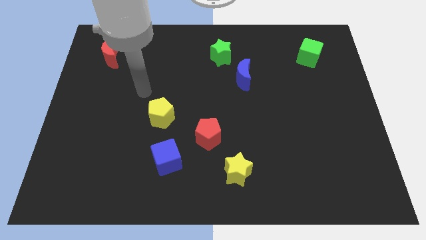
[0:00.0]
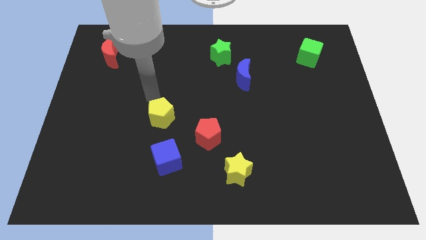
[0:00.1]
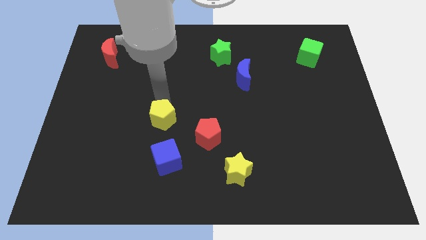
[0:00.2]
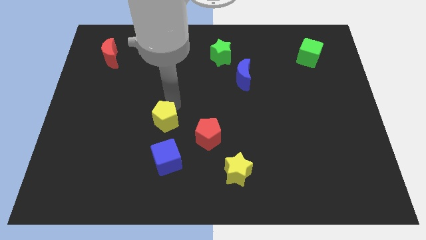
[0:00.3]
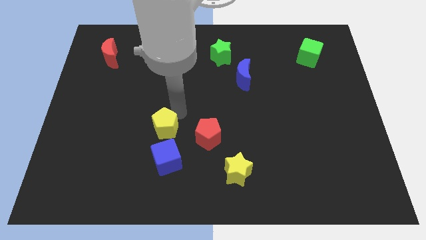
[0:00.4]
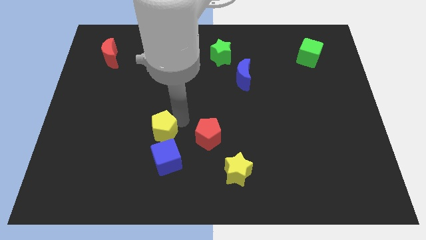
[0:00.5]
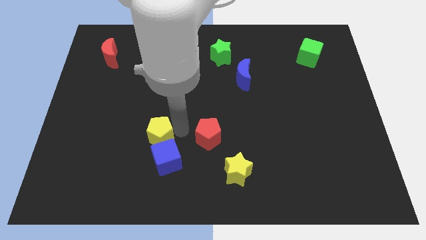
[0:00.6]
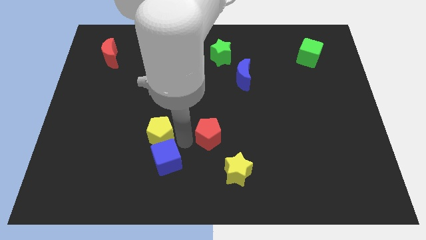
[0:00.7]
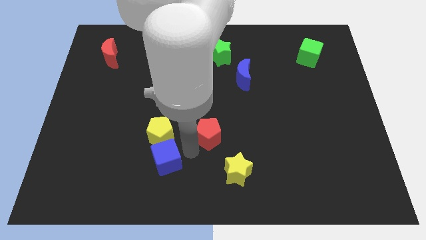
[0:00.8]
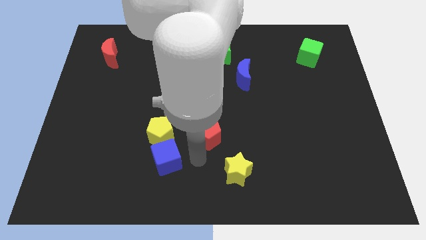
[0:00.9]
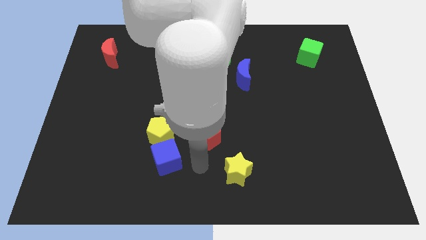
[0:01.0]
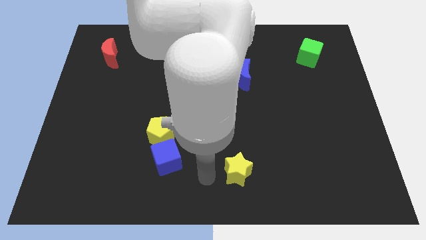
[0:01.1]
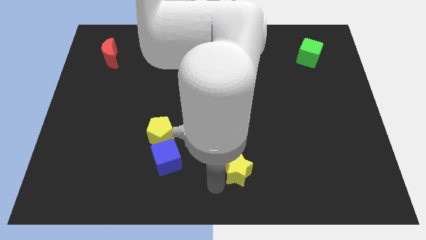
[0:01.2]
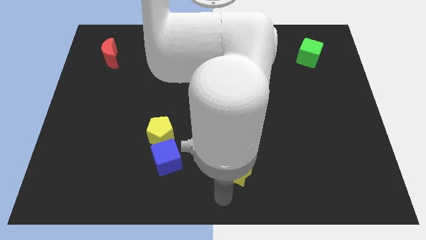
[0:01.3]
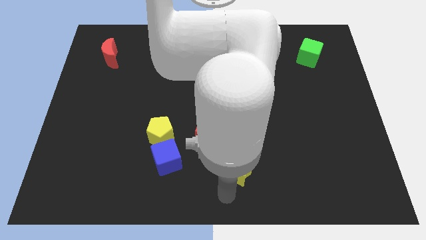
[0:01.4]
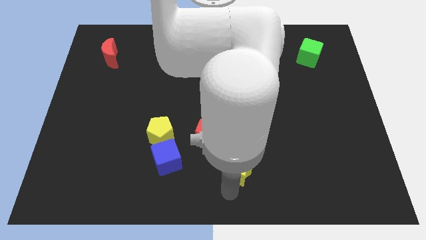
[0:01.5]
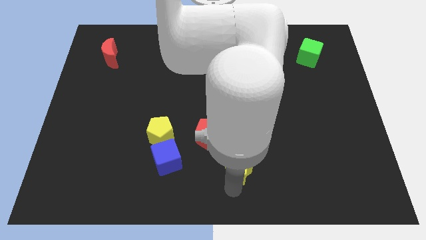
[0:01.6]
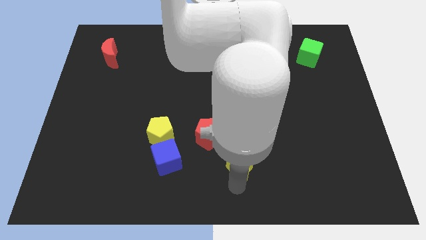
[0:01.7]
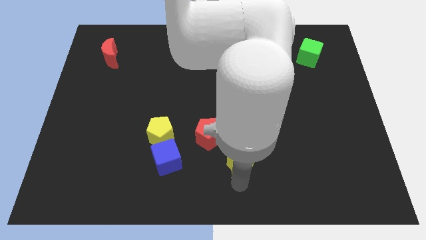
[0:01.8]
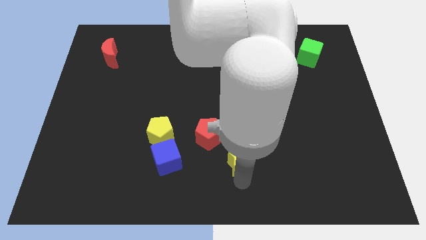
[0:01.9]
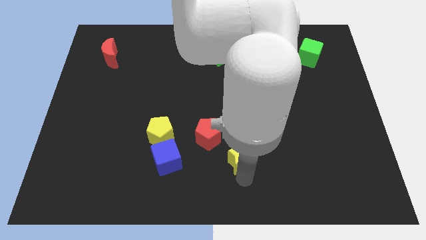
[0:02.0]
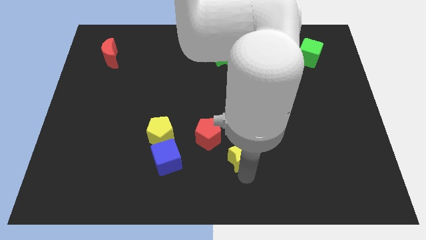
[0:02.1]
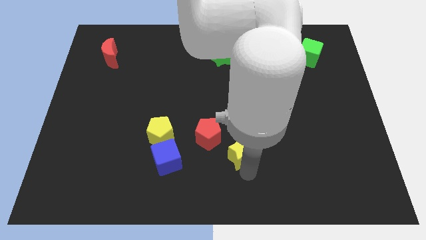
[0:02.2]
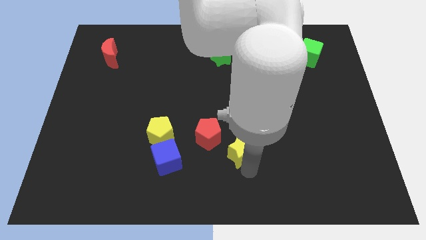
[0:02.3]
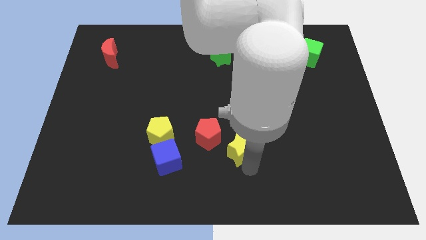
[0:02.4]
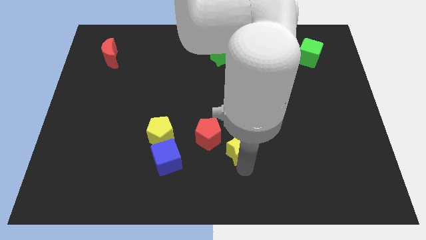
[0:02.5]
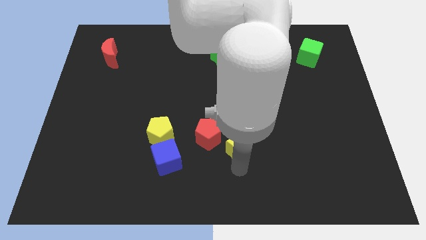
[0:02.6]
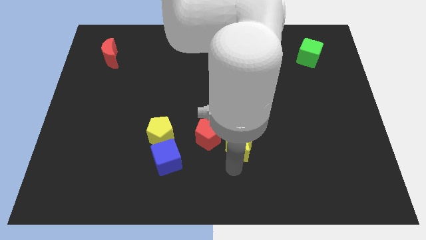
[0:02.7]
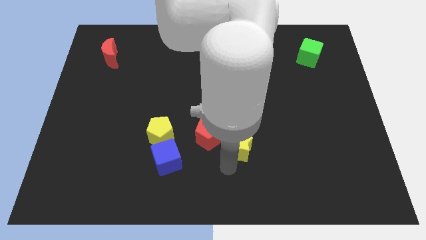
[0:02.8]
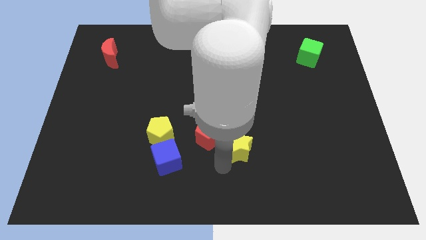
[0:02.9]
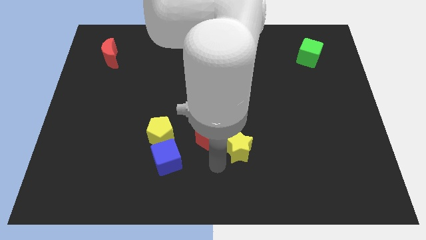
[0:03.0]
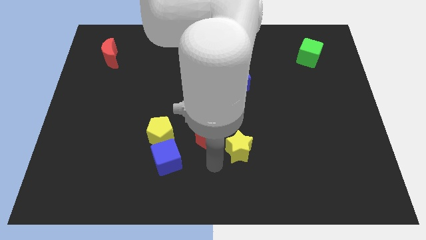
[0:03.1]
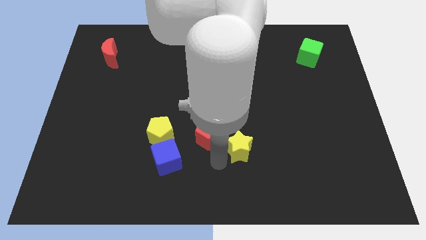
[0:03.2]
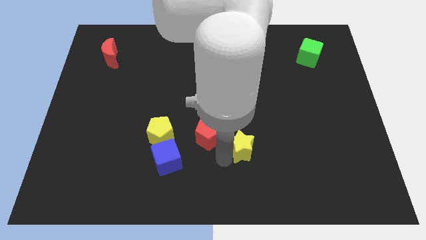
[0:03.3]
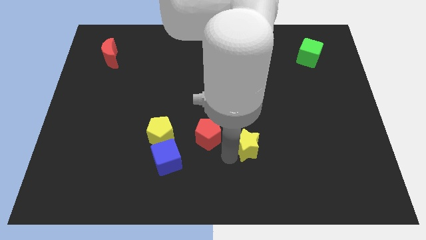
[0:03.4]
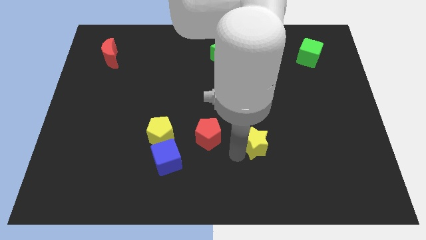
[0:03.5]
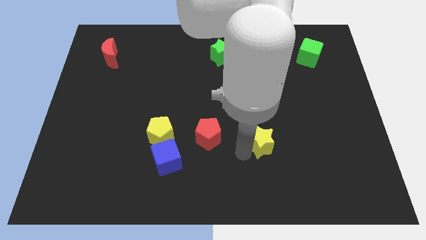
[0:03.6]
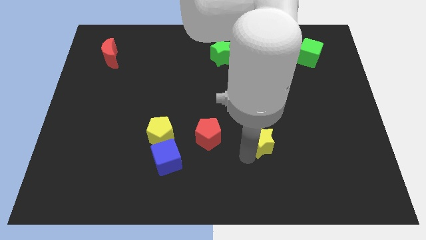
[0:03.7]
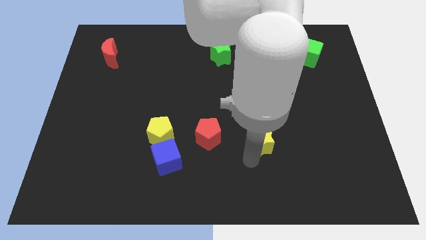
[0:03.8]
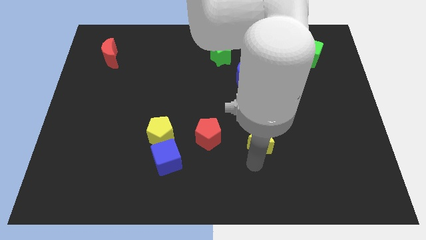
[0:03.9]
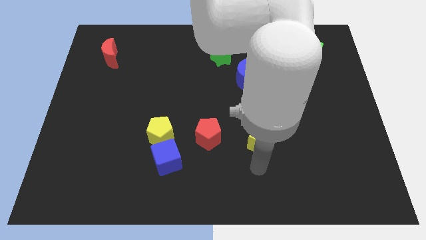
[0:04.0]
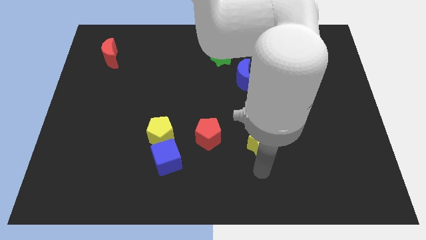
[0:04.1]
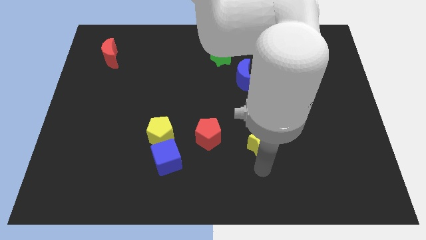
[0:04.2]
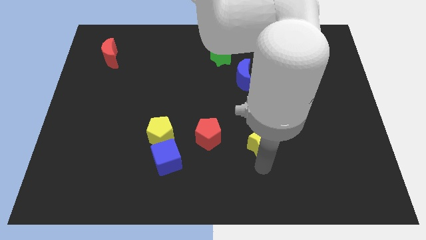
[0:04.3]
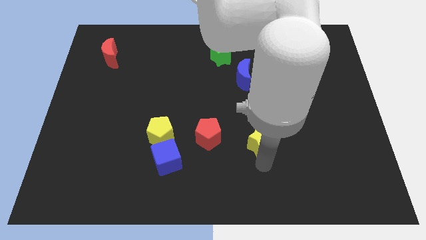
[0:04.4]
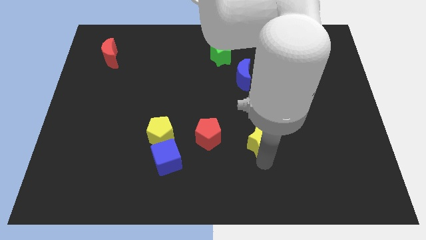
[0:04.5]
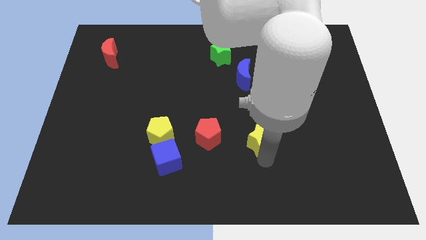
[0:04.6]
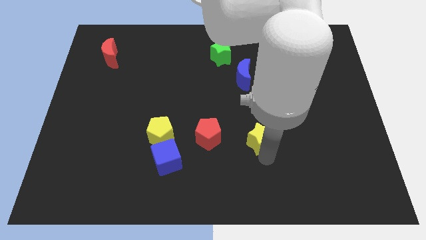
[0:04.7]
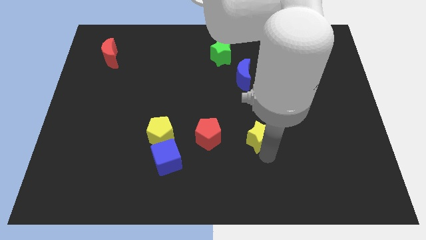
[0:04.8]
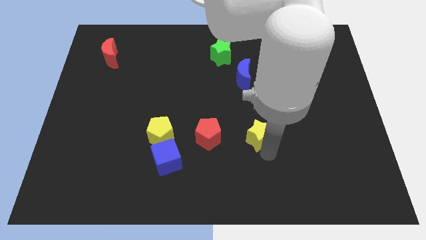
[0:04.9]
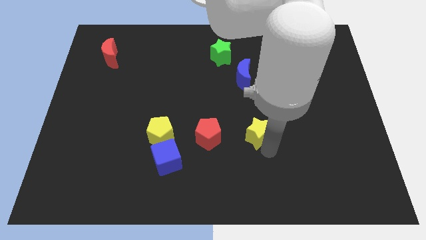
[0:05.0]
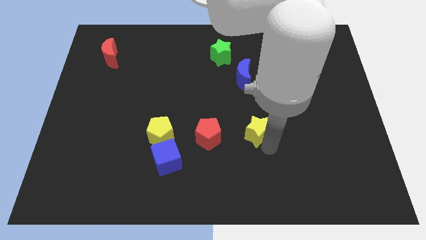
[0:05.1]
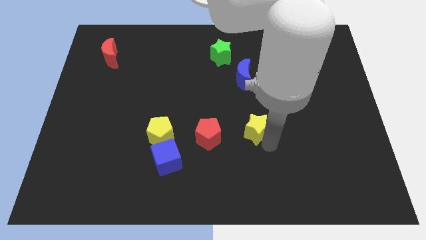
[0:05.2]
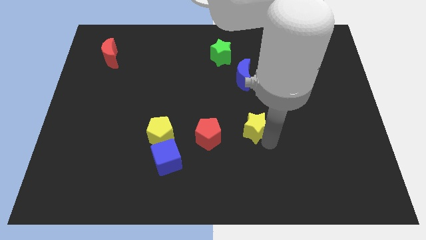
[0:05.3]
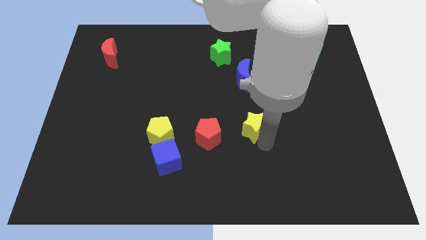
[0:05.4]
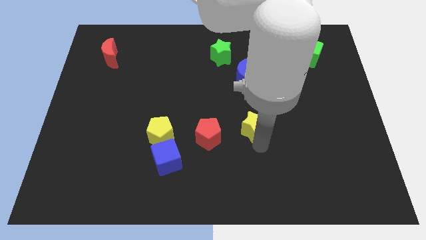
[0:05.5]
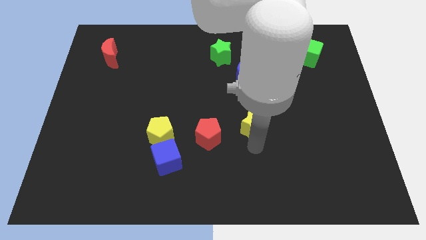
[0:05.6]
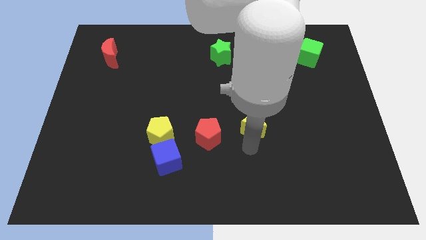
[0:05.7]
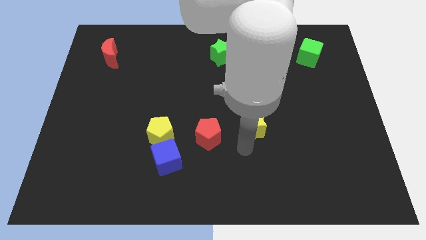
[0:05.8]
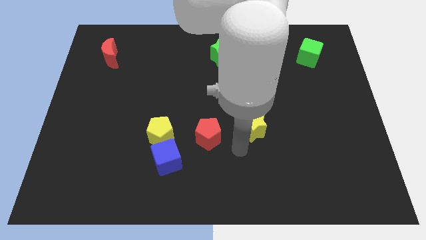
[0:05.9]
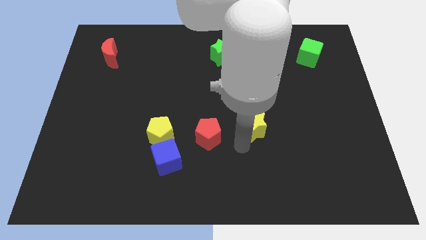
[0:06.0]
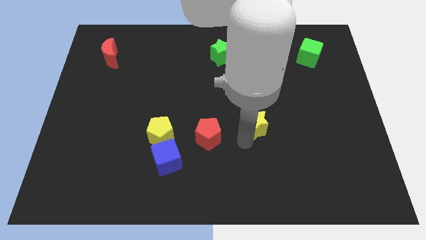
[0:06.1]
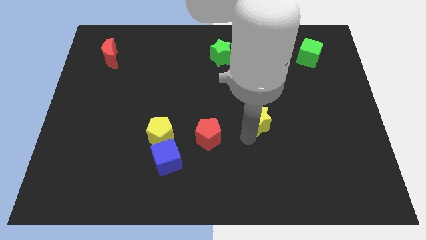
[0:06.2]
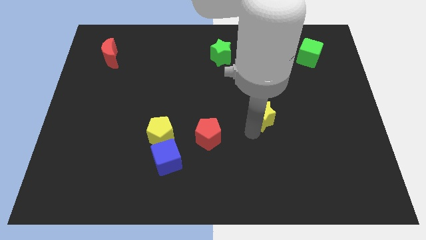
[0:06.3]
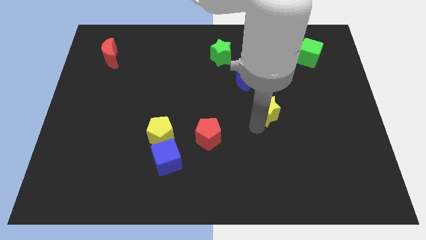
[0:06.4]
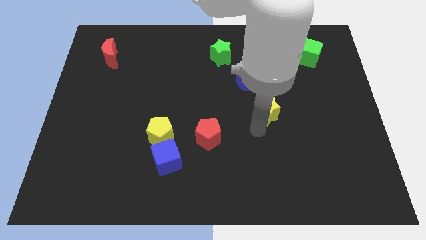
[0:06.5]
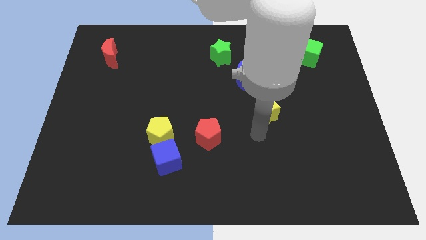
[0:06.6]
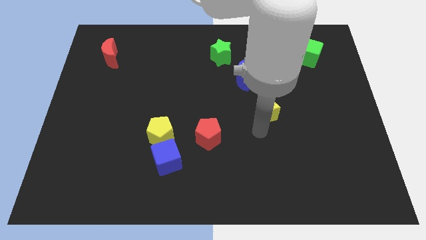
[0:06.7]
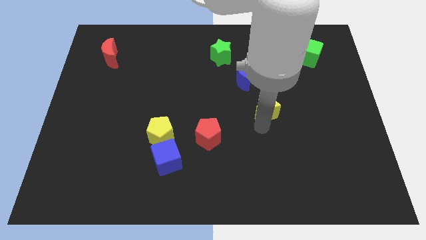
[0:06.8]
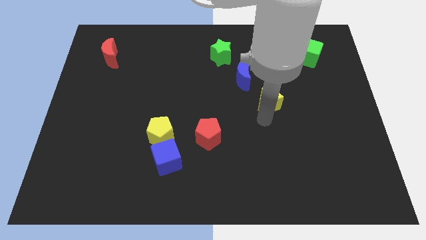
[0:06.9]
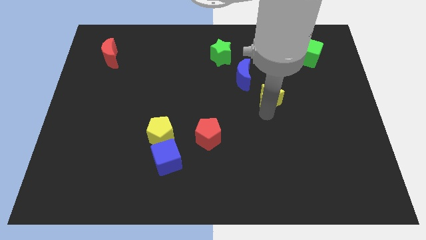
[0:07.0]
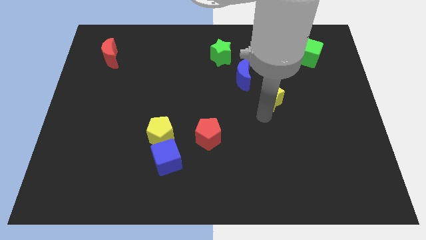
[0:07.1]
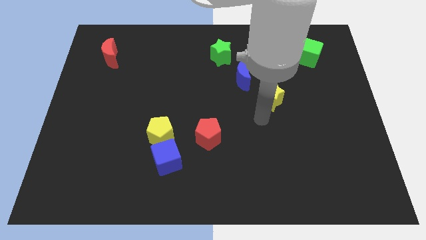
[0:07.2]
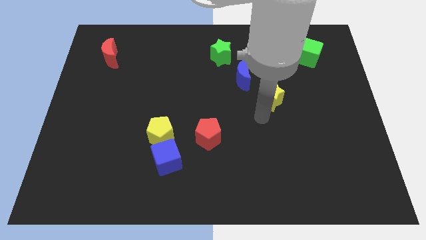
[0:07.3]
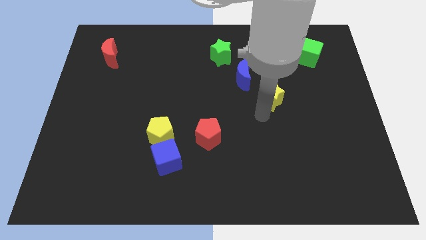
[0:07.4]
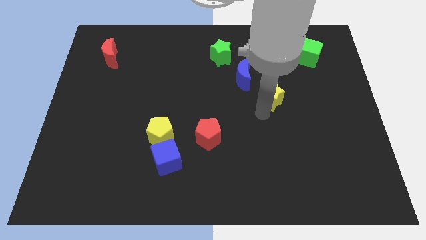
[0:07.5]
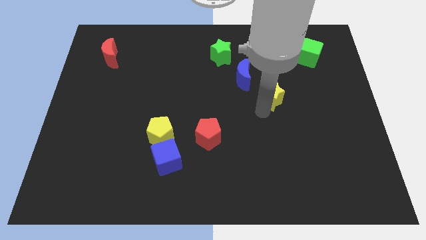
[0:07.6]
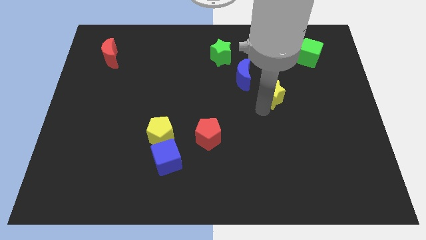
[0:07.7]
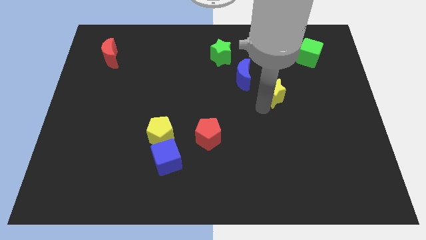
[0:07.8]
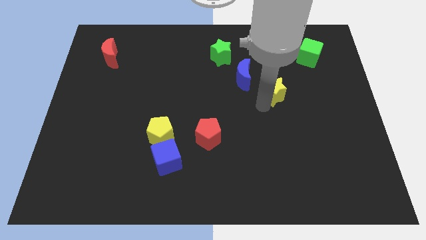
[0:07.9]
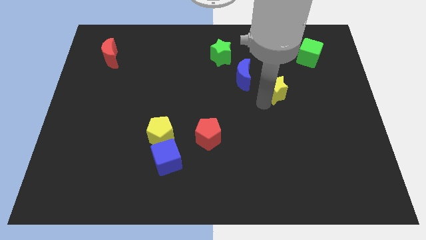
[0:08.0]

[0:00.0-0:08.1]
push the yellow star just right of the blue moon
